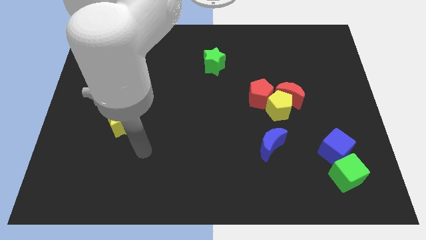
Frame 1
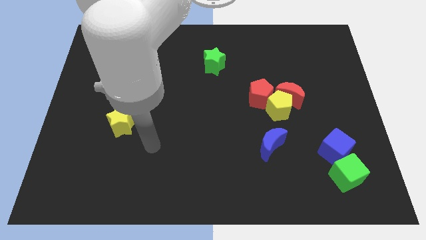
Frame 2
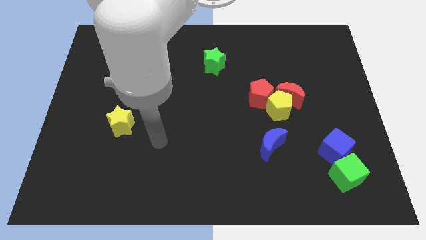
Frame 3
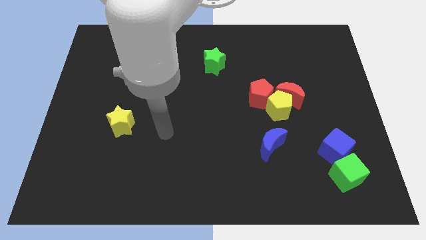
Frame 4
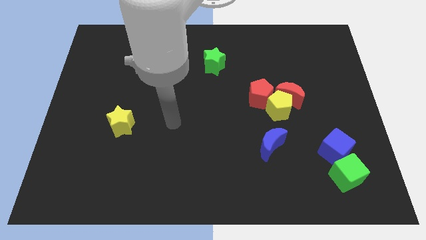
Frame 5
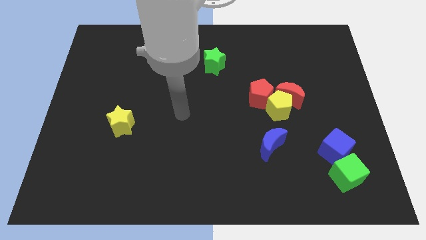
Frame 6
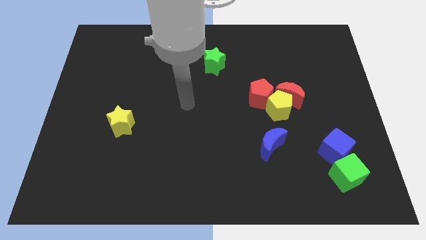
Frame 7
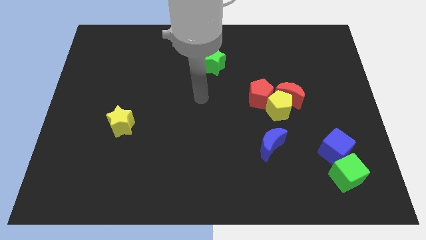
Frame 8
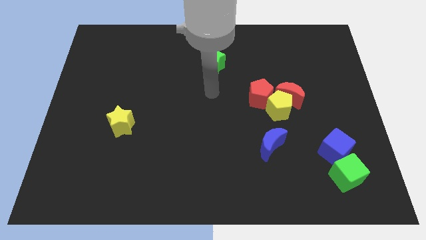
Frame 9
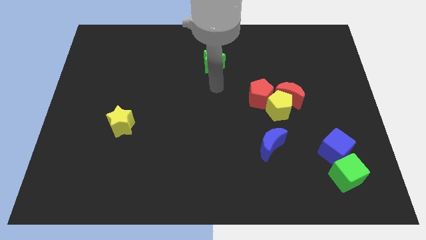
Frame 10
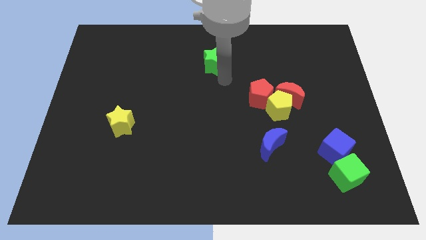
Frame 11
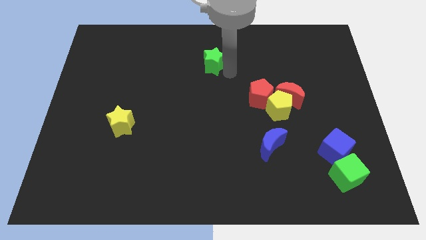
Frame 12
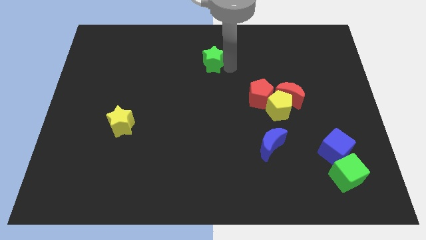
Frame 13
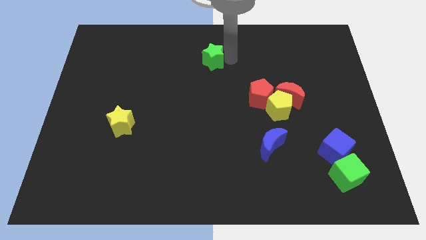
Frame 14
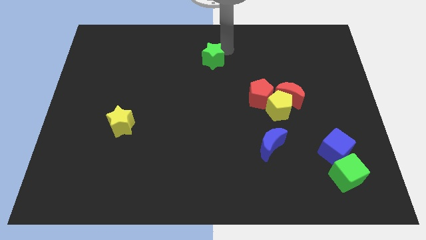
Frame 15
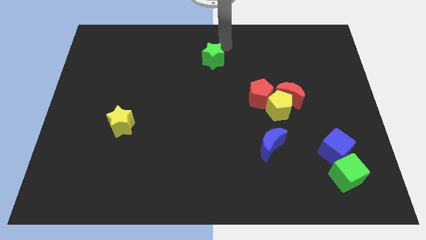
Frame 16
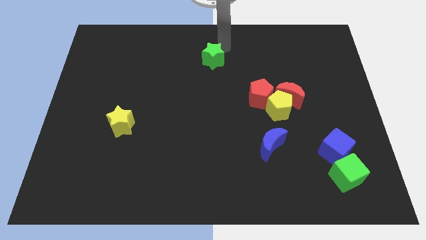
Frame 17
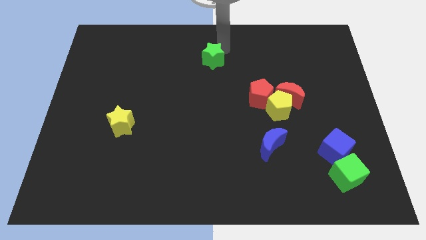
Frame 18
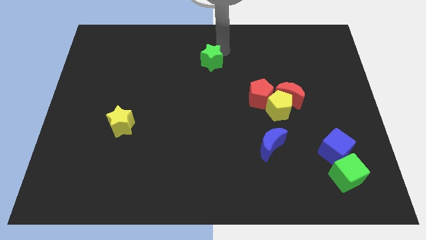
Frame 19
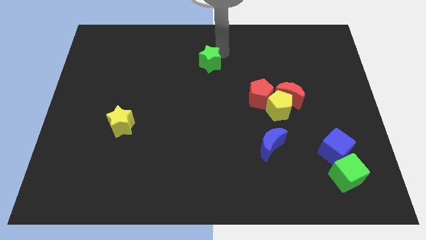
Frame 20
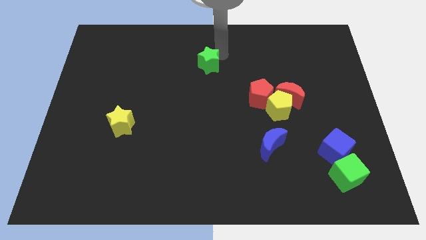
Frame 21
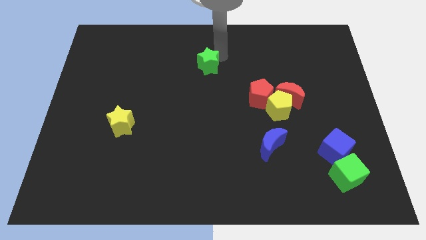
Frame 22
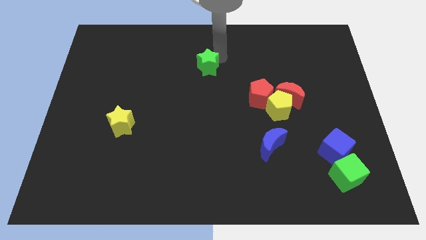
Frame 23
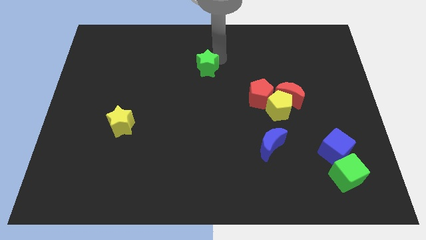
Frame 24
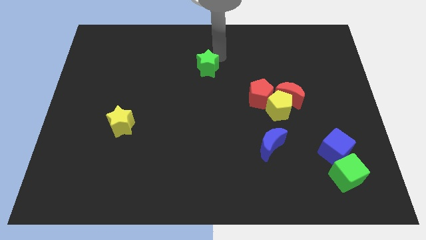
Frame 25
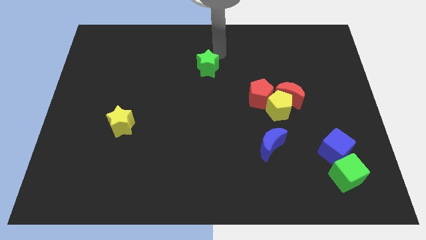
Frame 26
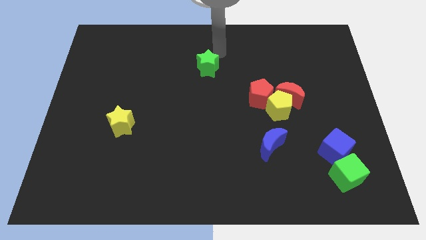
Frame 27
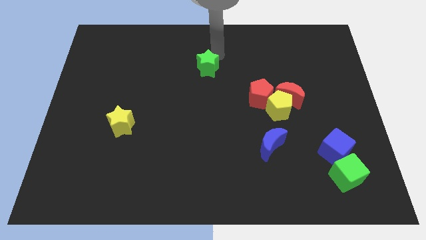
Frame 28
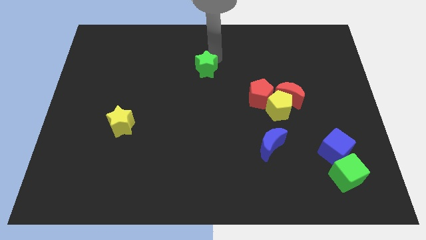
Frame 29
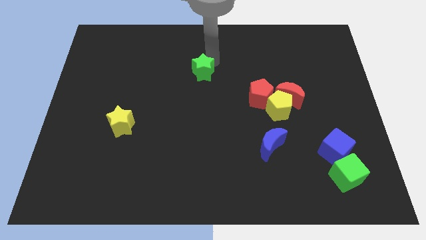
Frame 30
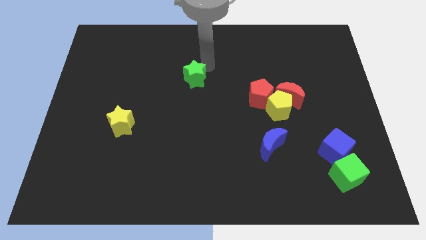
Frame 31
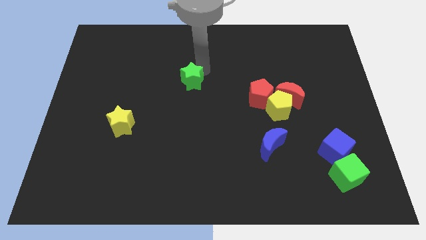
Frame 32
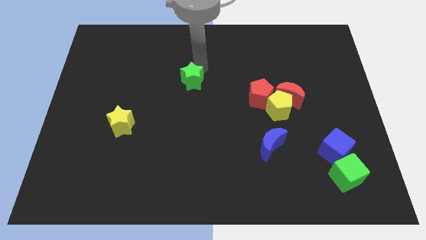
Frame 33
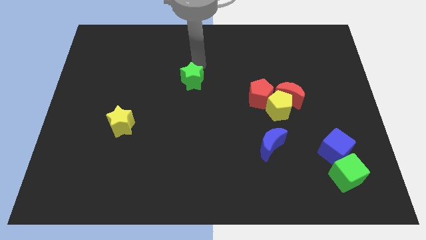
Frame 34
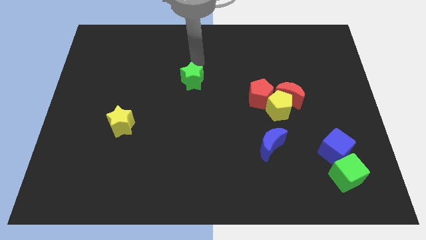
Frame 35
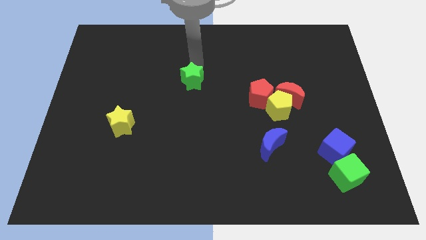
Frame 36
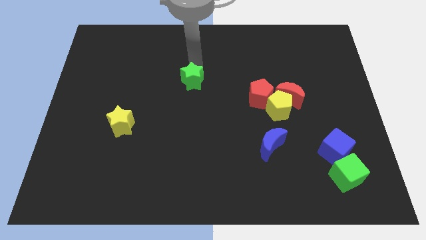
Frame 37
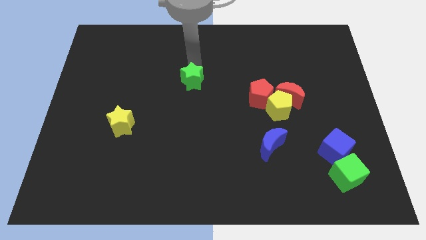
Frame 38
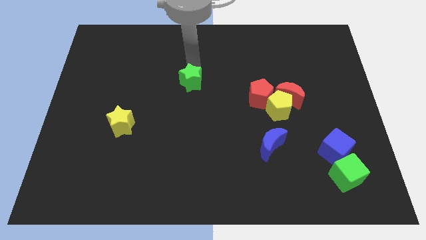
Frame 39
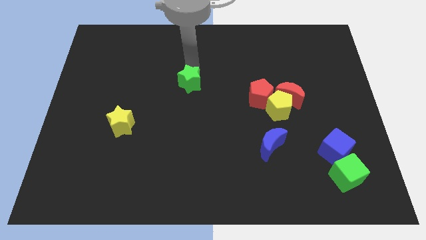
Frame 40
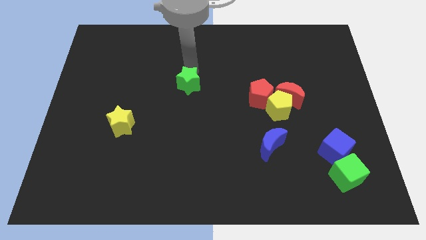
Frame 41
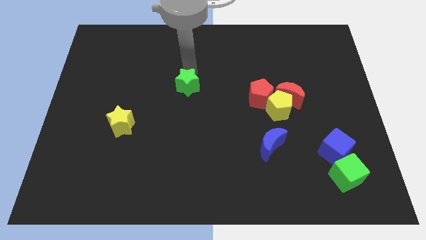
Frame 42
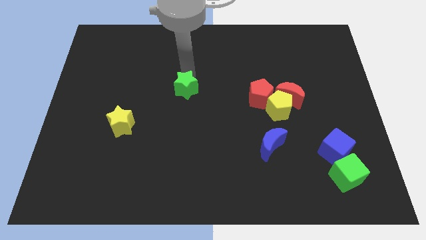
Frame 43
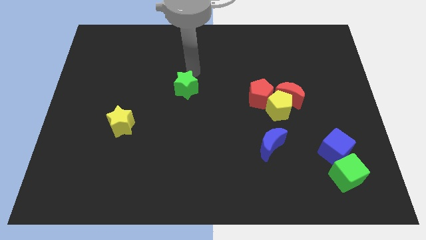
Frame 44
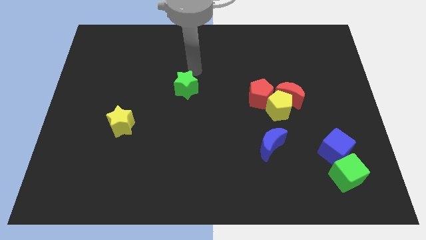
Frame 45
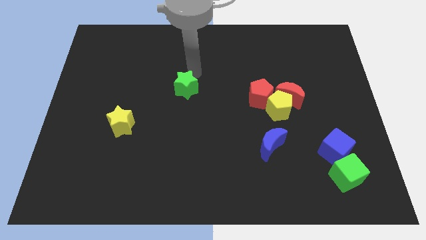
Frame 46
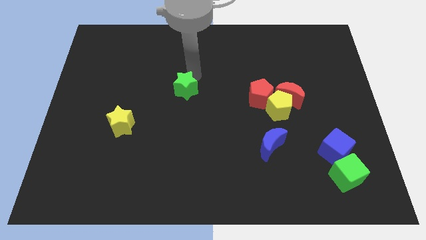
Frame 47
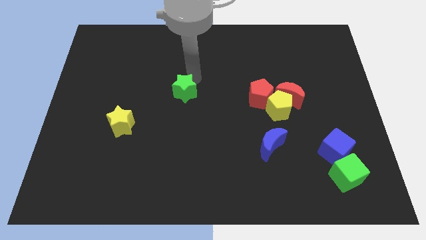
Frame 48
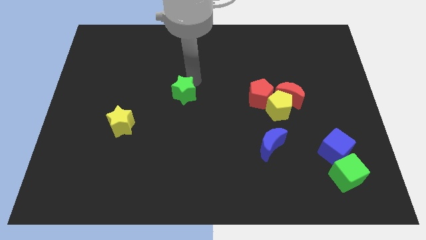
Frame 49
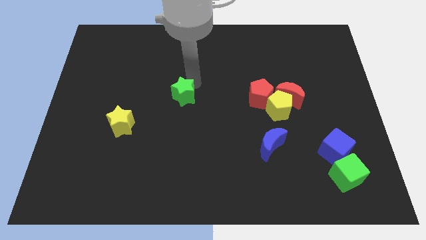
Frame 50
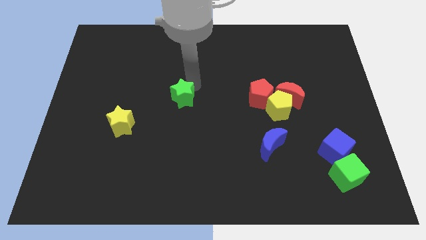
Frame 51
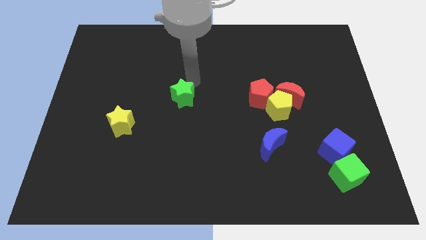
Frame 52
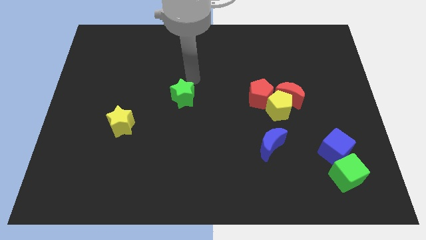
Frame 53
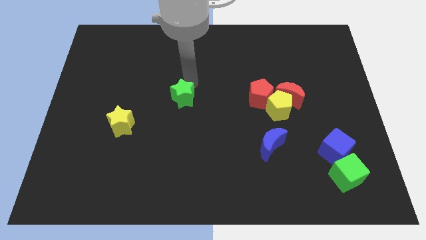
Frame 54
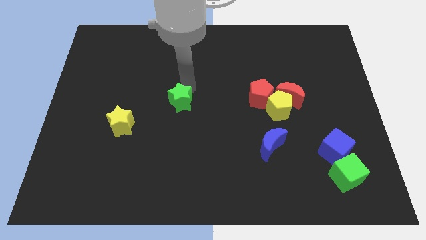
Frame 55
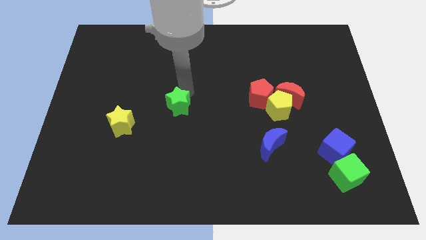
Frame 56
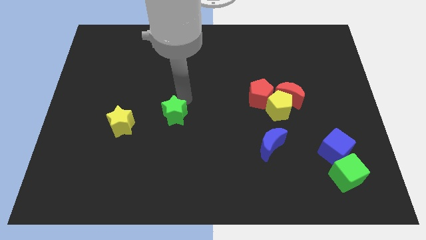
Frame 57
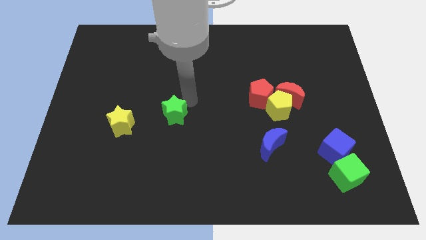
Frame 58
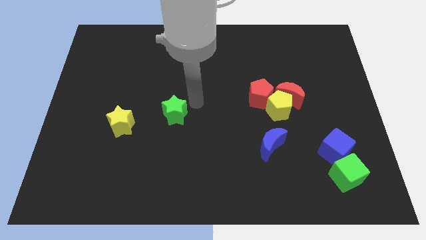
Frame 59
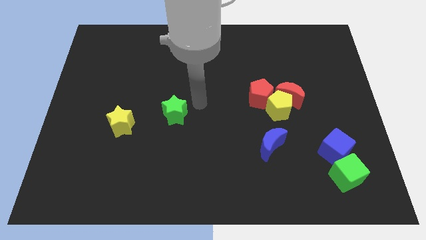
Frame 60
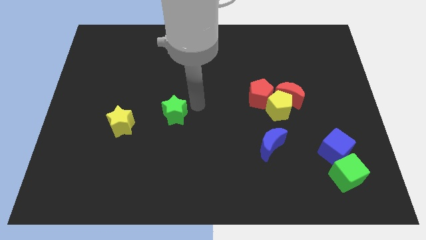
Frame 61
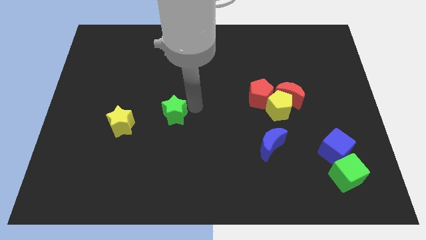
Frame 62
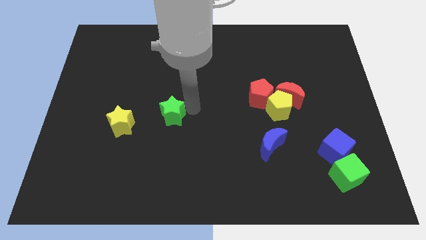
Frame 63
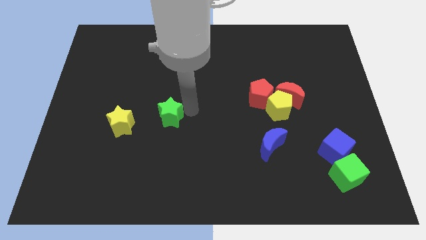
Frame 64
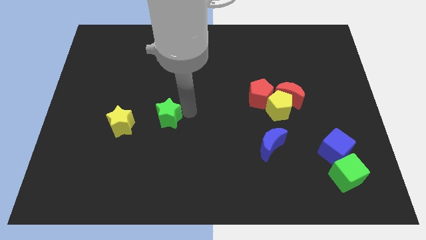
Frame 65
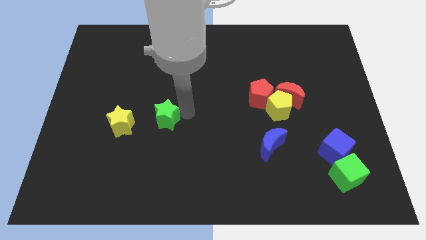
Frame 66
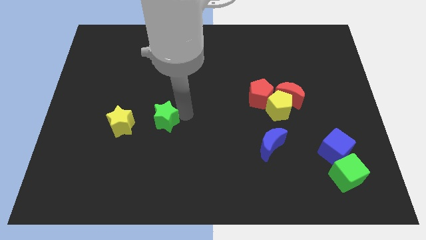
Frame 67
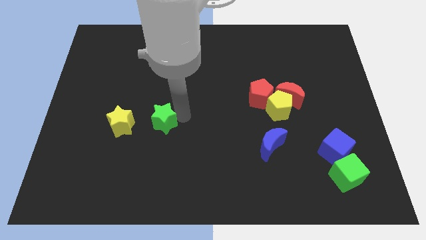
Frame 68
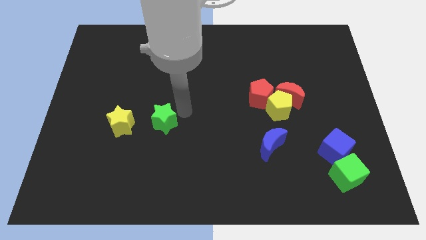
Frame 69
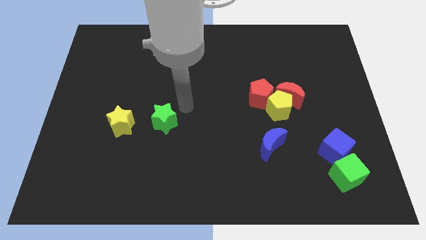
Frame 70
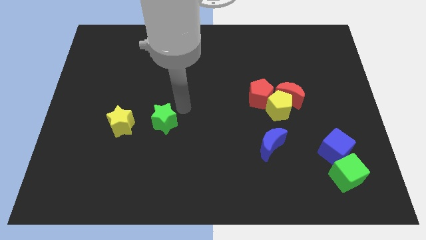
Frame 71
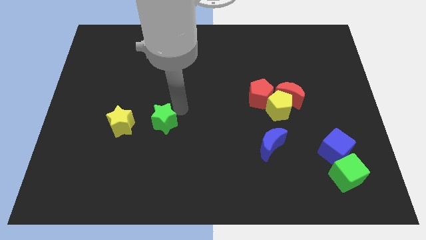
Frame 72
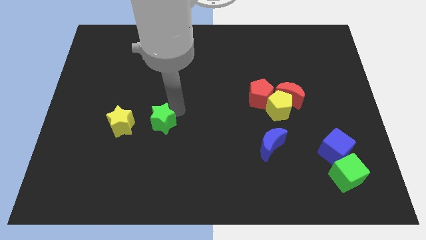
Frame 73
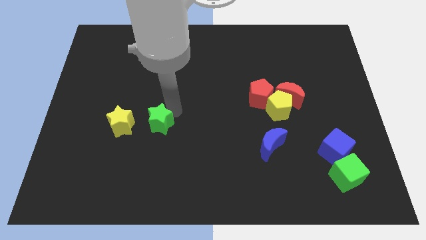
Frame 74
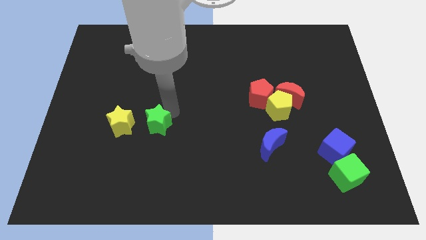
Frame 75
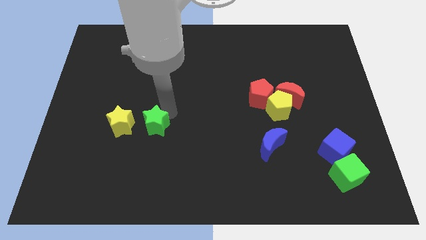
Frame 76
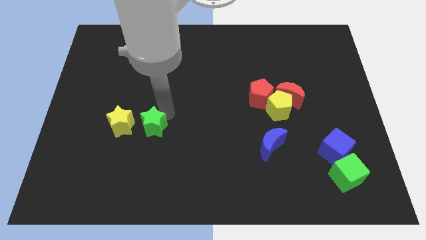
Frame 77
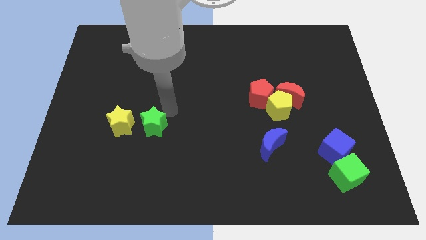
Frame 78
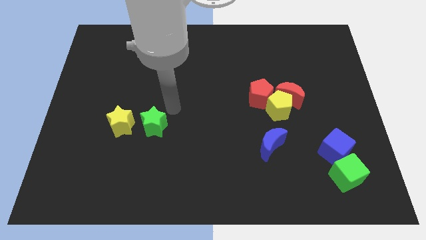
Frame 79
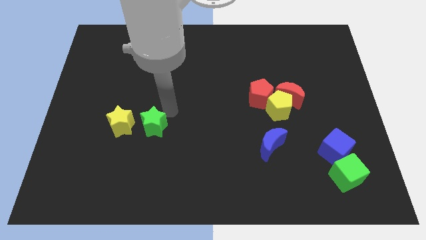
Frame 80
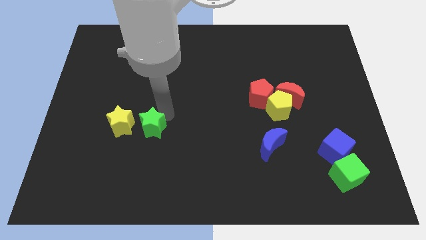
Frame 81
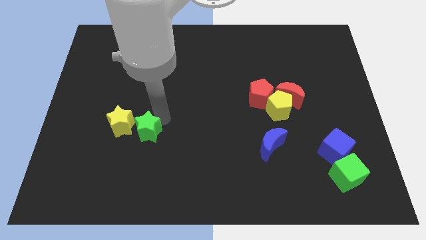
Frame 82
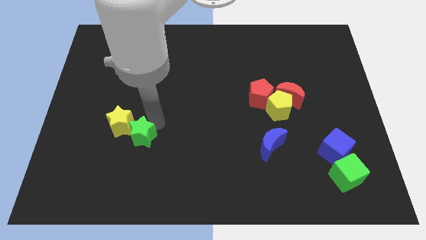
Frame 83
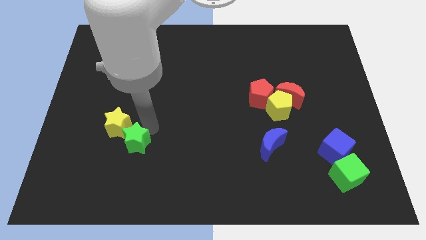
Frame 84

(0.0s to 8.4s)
push the green star below the yellow star
